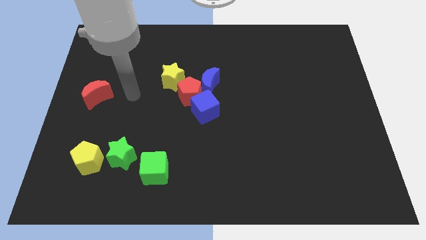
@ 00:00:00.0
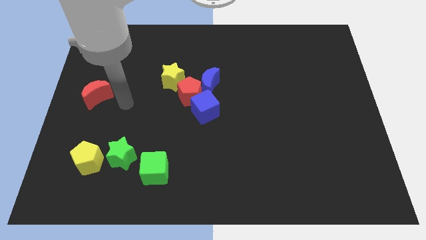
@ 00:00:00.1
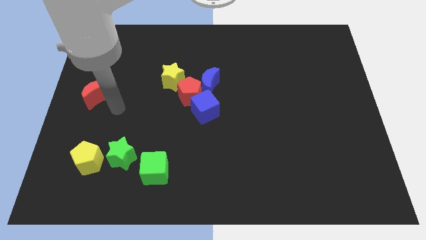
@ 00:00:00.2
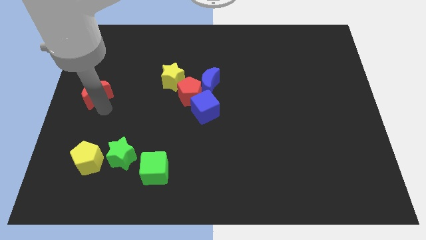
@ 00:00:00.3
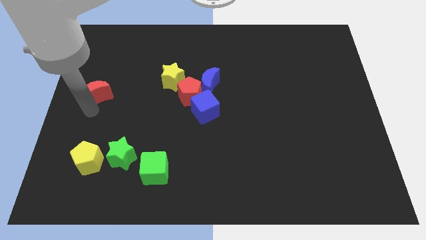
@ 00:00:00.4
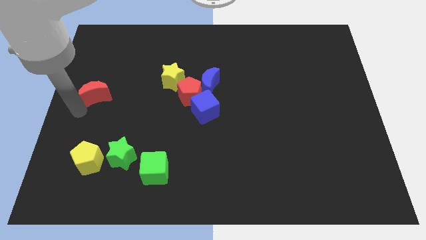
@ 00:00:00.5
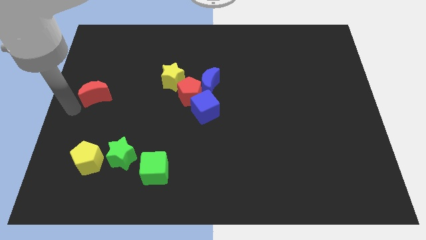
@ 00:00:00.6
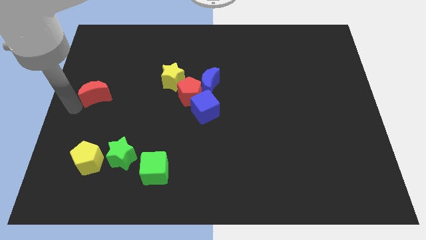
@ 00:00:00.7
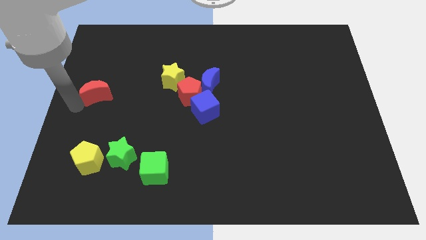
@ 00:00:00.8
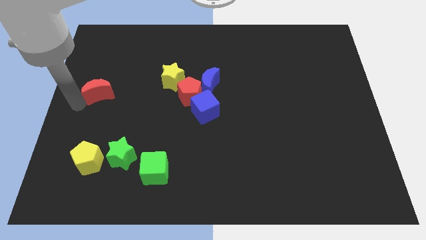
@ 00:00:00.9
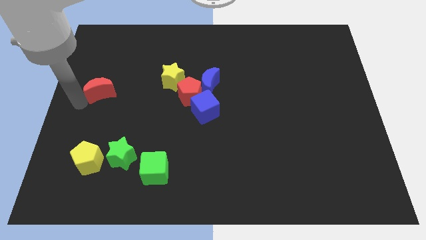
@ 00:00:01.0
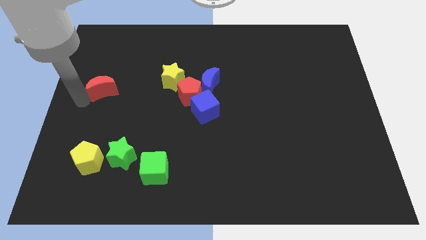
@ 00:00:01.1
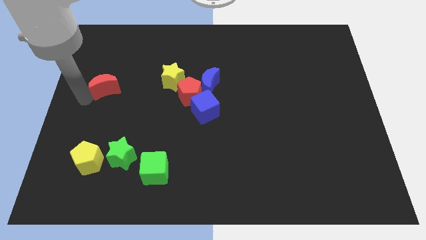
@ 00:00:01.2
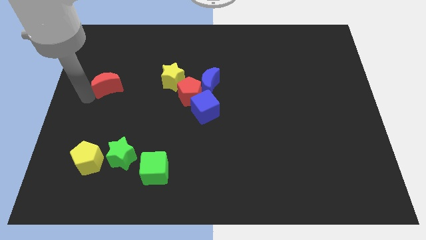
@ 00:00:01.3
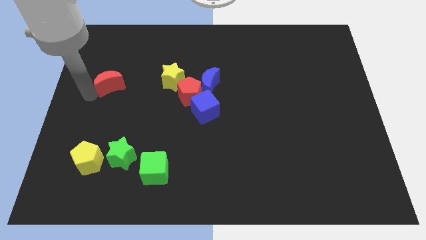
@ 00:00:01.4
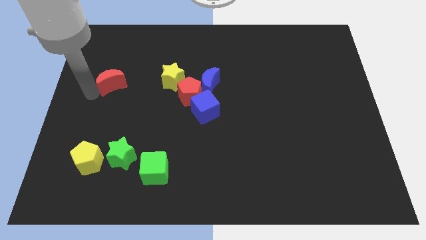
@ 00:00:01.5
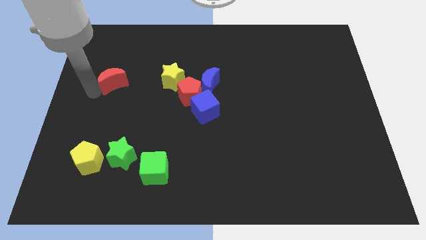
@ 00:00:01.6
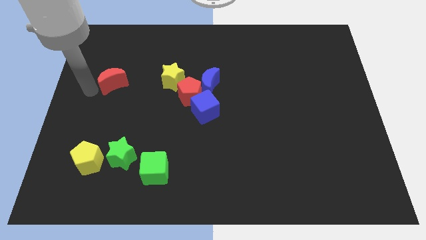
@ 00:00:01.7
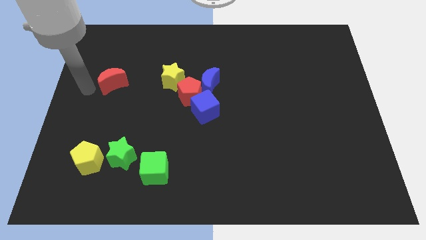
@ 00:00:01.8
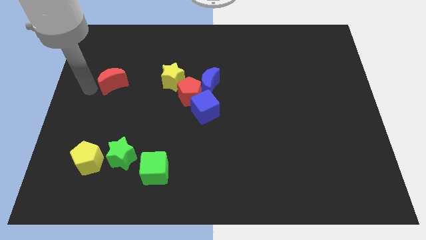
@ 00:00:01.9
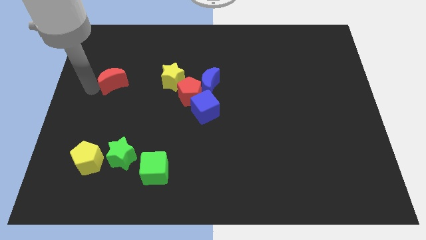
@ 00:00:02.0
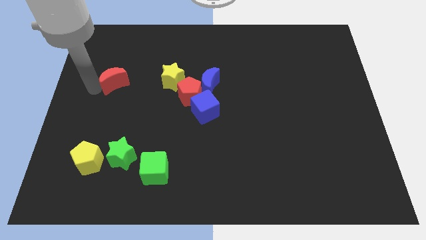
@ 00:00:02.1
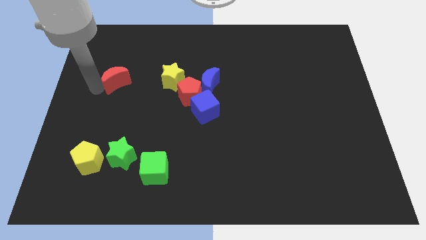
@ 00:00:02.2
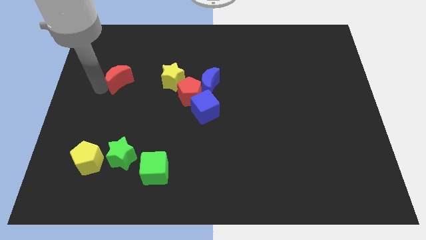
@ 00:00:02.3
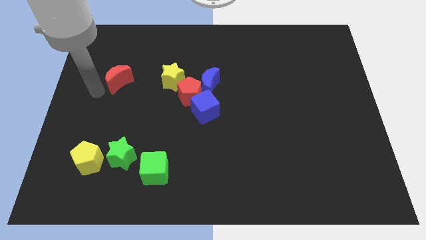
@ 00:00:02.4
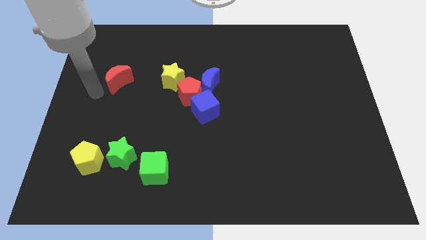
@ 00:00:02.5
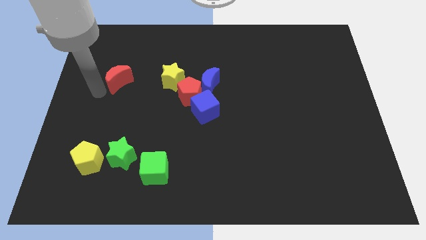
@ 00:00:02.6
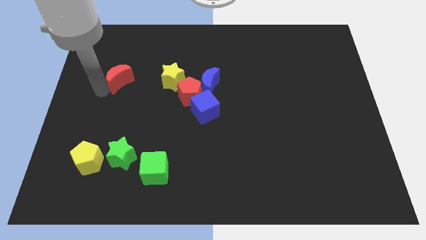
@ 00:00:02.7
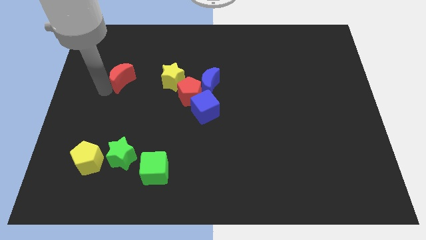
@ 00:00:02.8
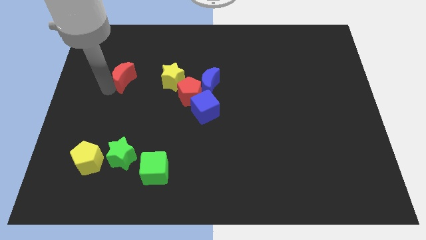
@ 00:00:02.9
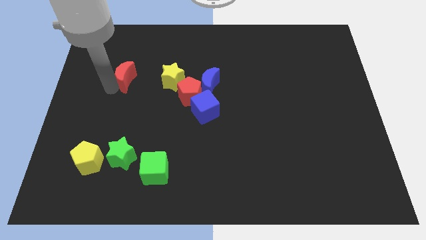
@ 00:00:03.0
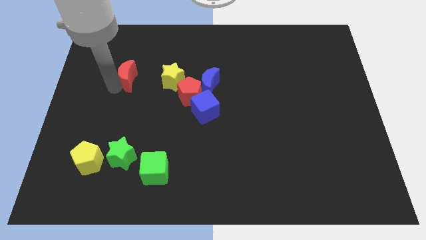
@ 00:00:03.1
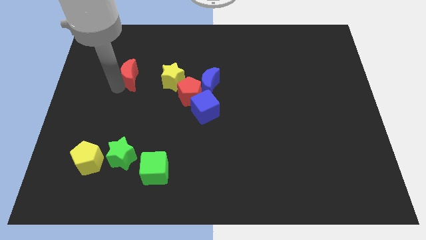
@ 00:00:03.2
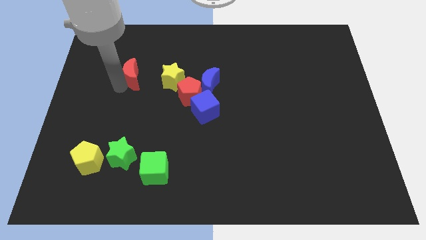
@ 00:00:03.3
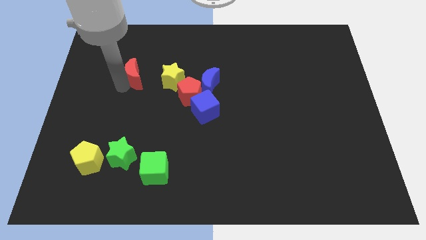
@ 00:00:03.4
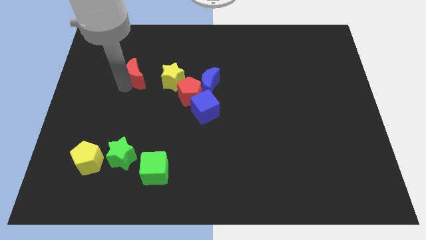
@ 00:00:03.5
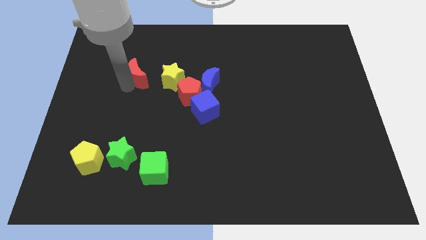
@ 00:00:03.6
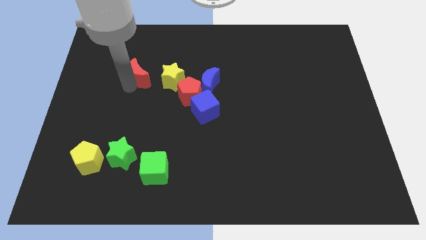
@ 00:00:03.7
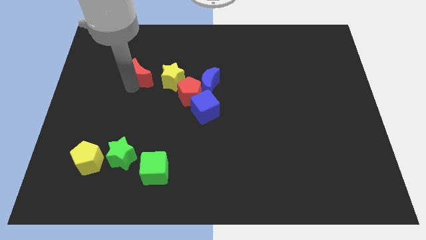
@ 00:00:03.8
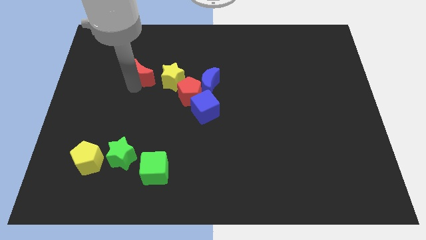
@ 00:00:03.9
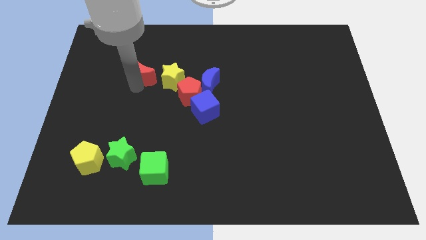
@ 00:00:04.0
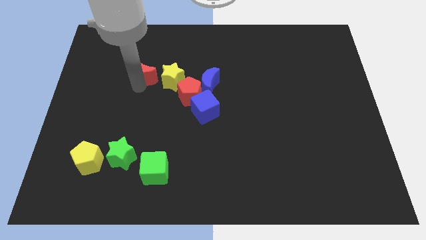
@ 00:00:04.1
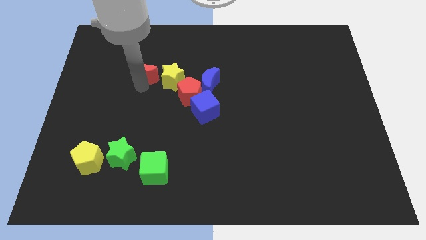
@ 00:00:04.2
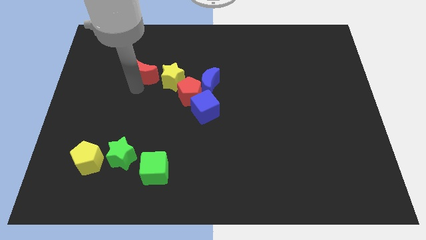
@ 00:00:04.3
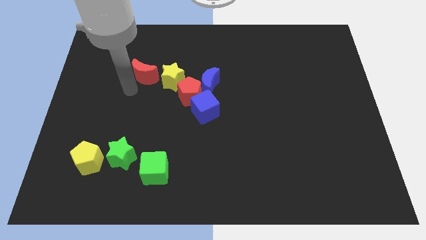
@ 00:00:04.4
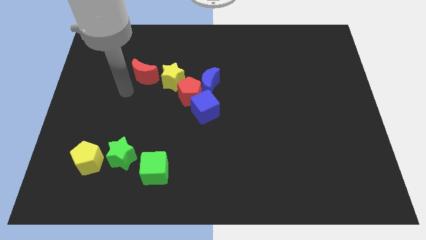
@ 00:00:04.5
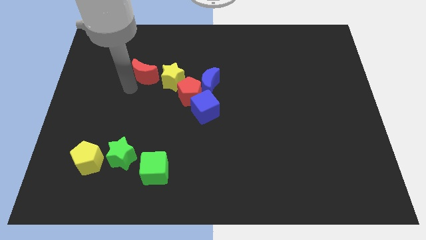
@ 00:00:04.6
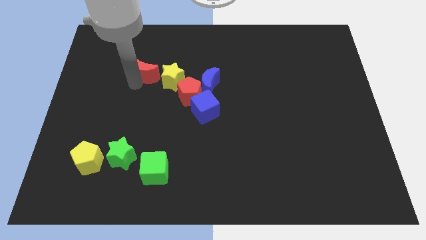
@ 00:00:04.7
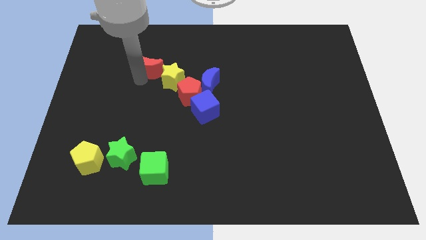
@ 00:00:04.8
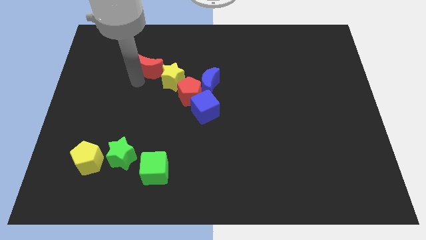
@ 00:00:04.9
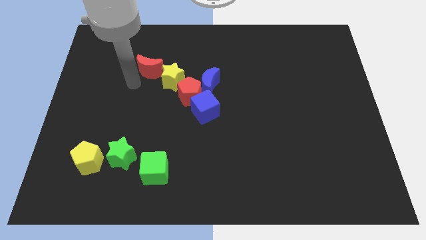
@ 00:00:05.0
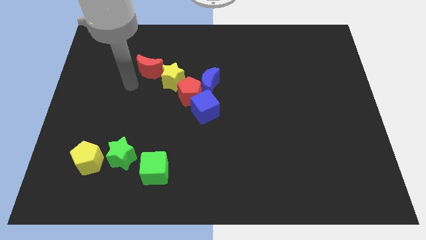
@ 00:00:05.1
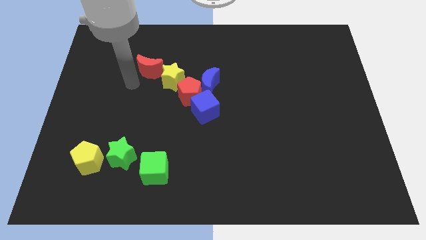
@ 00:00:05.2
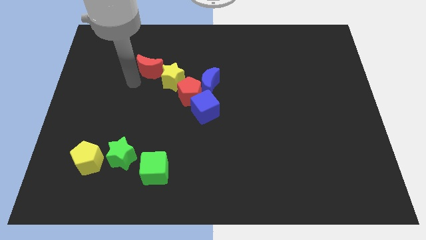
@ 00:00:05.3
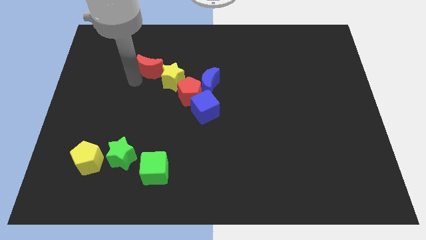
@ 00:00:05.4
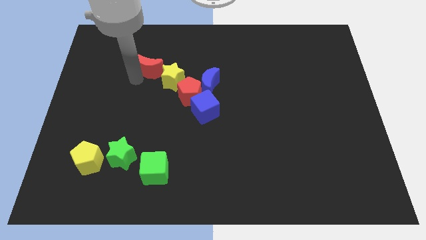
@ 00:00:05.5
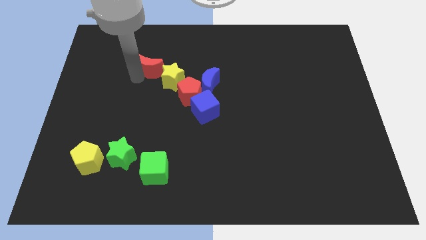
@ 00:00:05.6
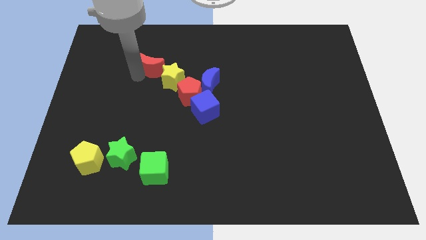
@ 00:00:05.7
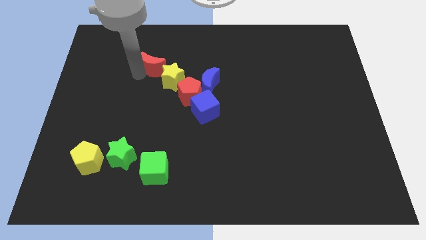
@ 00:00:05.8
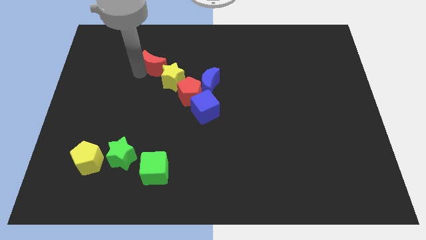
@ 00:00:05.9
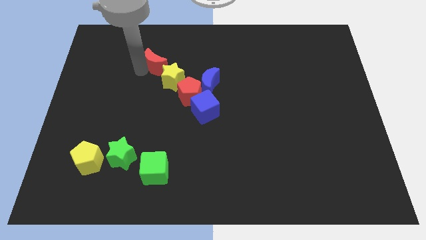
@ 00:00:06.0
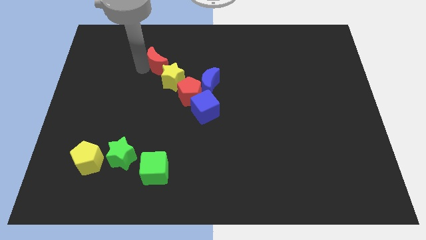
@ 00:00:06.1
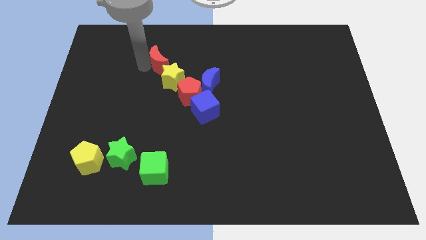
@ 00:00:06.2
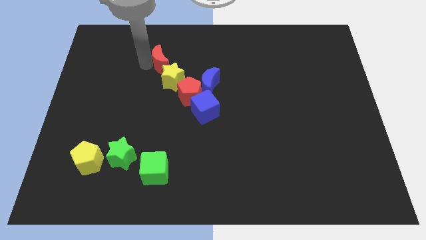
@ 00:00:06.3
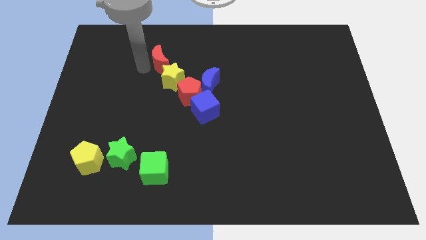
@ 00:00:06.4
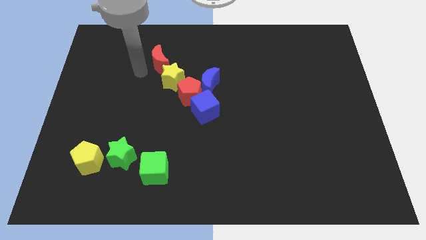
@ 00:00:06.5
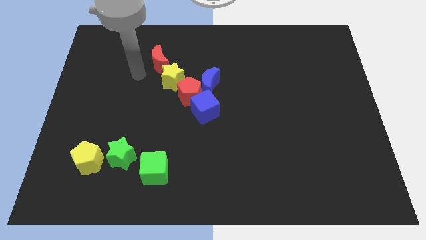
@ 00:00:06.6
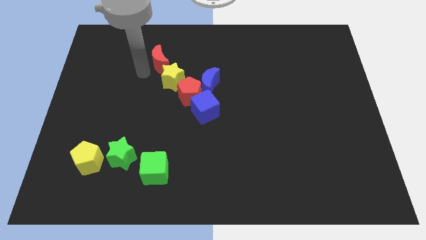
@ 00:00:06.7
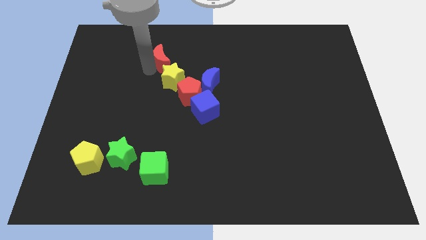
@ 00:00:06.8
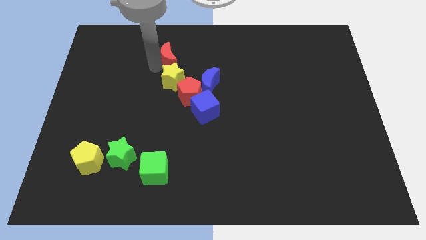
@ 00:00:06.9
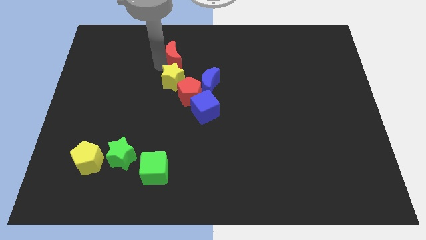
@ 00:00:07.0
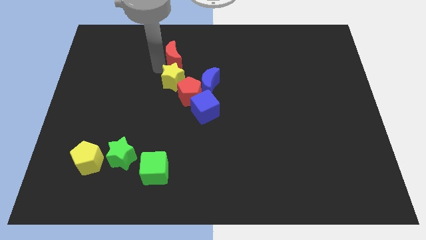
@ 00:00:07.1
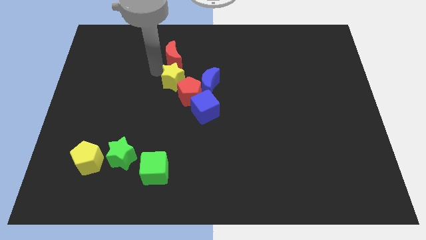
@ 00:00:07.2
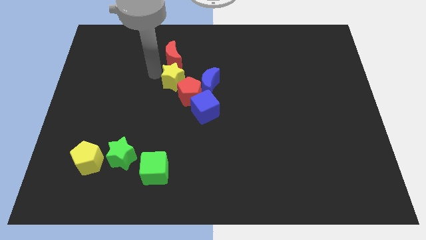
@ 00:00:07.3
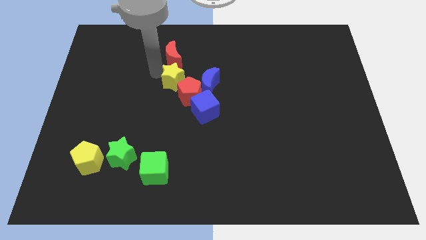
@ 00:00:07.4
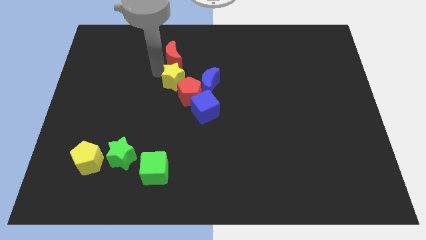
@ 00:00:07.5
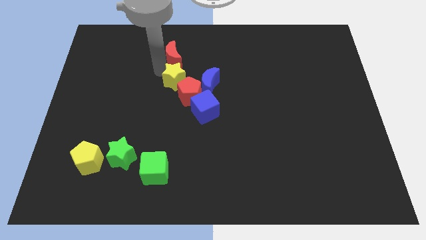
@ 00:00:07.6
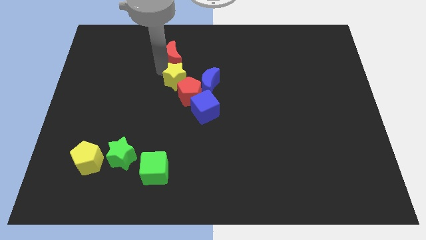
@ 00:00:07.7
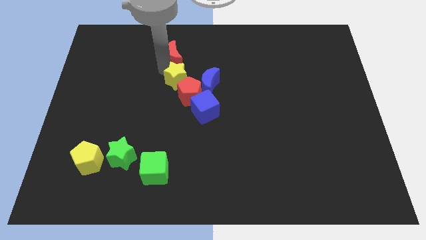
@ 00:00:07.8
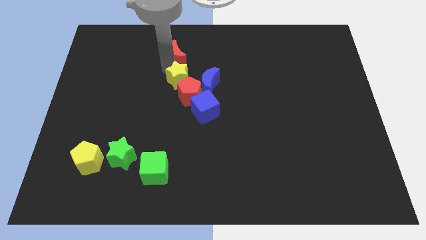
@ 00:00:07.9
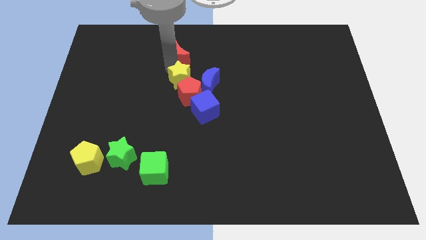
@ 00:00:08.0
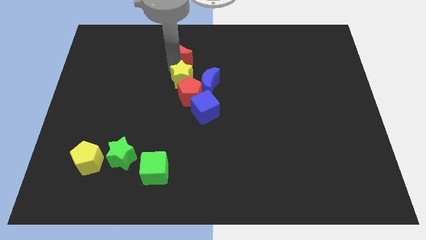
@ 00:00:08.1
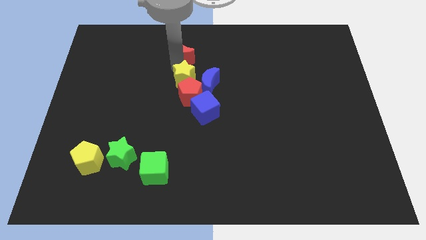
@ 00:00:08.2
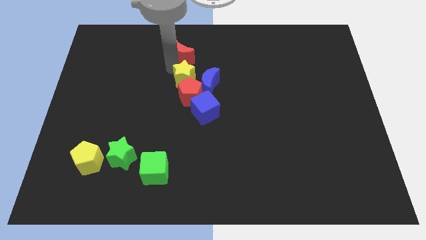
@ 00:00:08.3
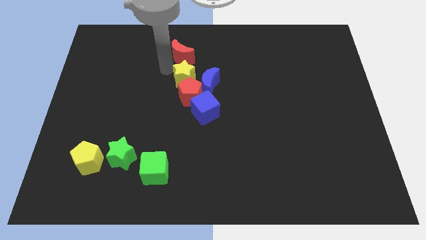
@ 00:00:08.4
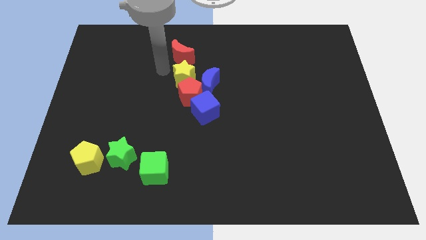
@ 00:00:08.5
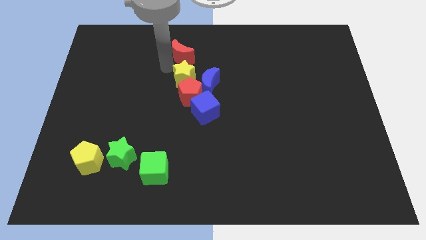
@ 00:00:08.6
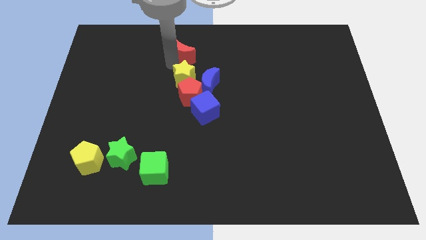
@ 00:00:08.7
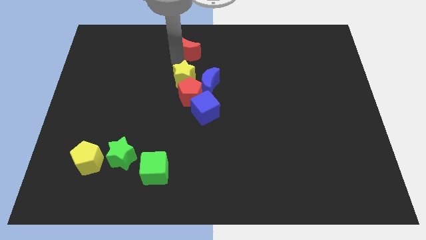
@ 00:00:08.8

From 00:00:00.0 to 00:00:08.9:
put the red moon to the towards your base
